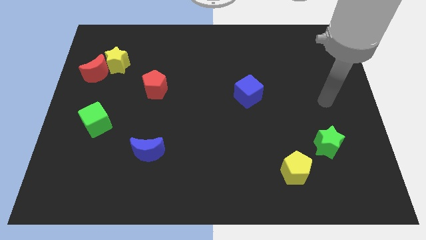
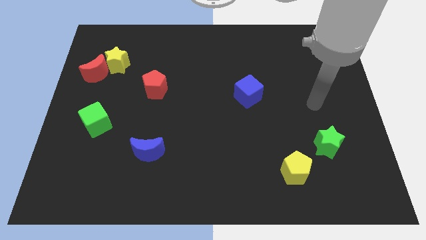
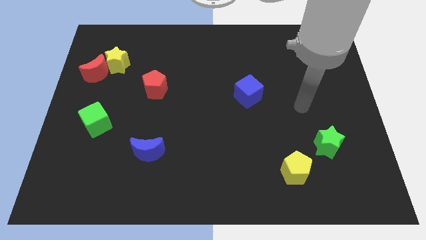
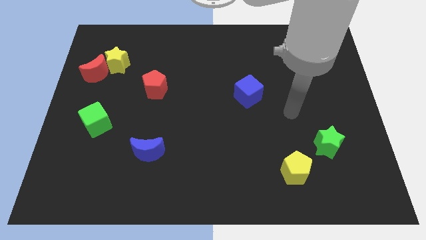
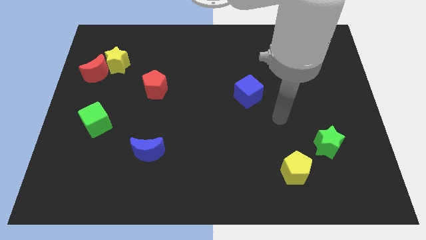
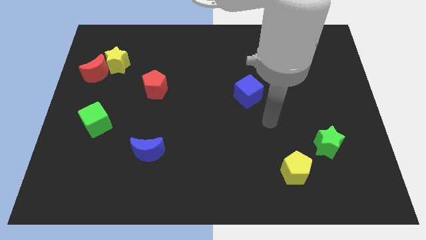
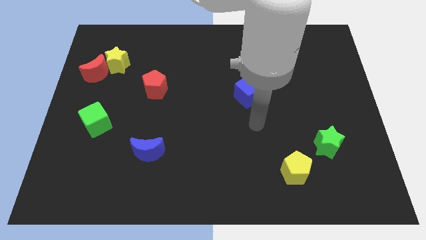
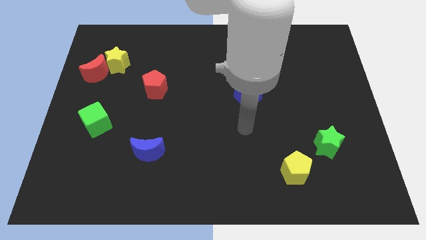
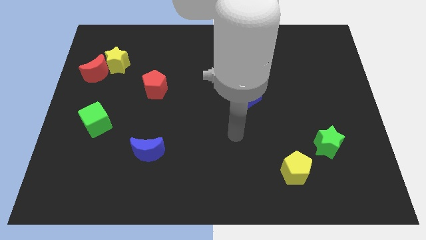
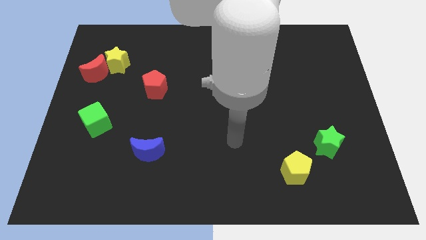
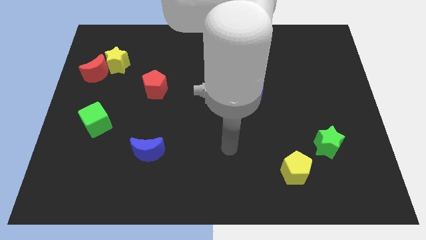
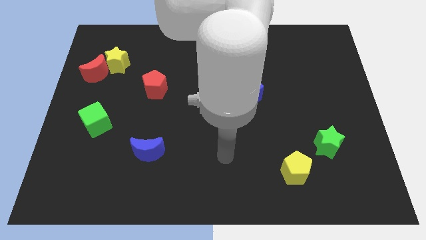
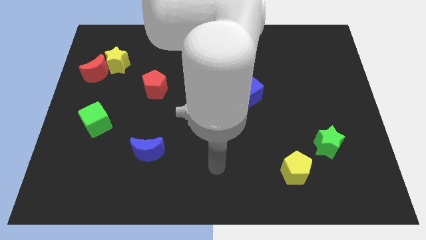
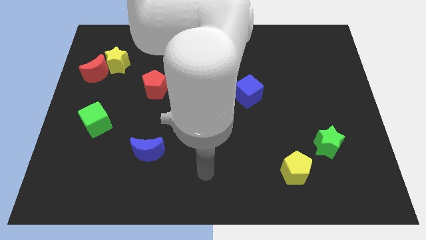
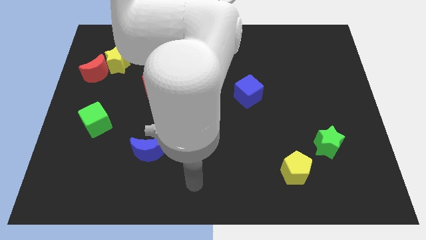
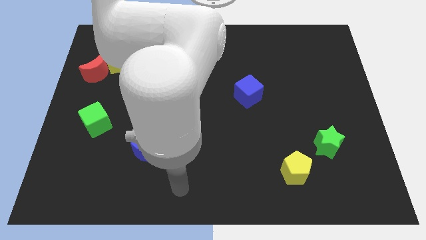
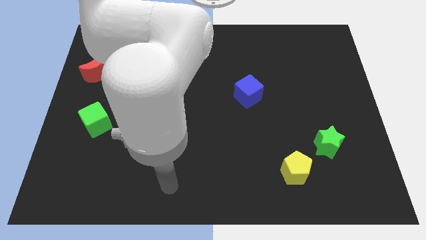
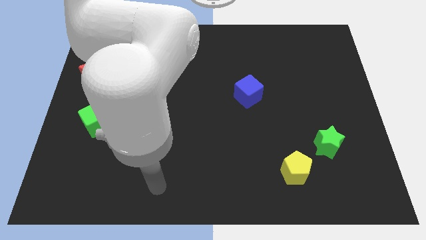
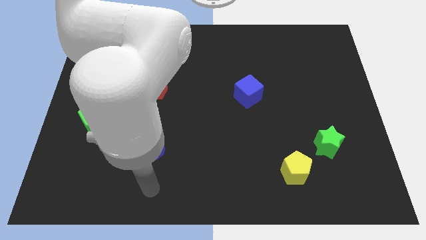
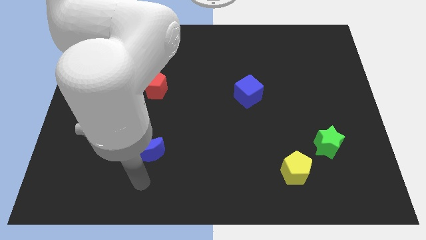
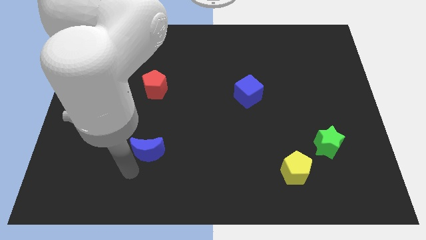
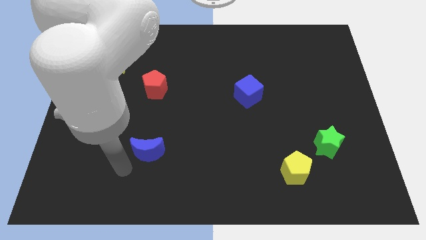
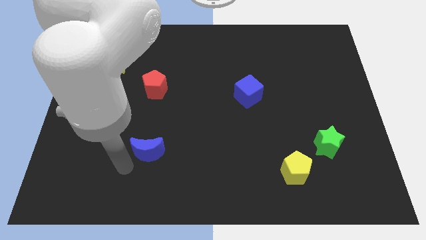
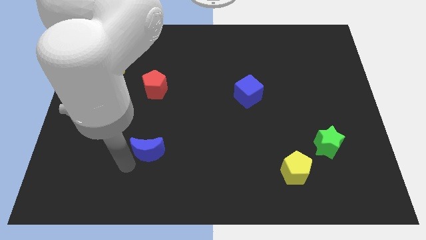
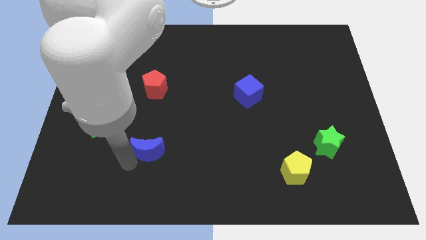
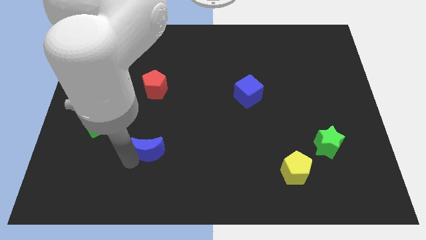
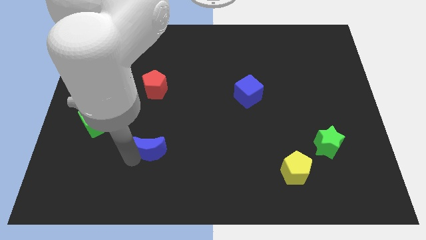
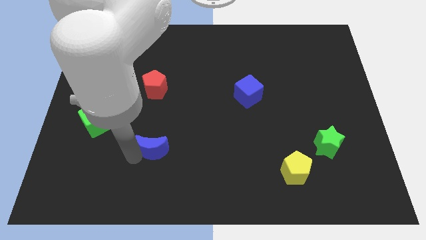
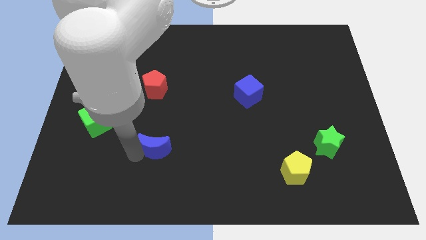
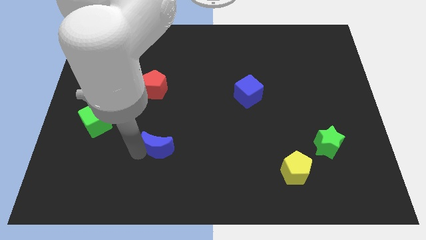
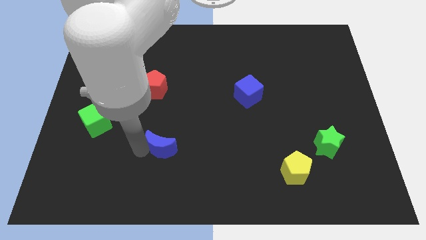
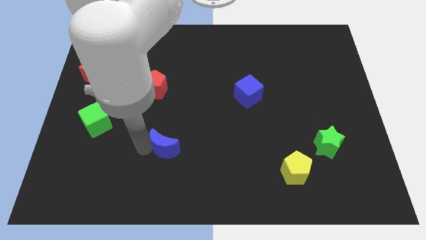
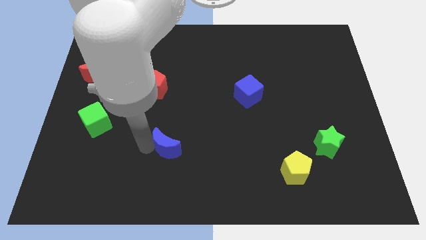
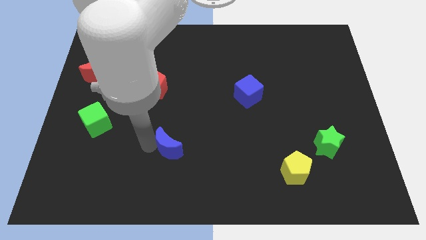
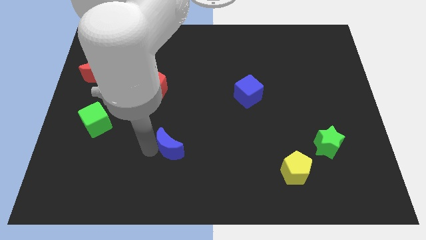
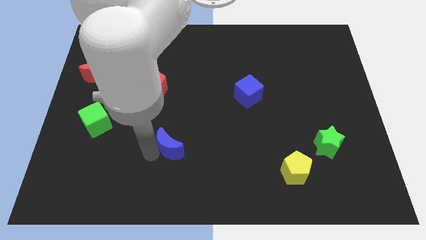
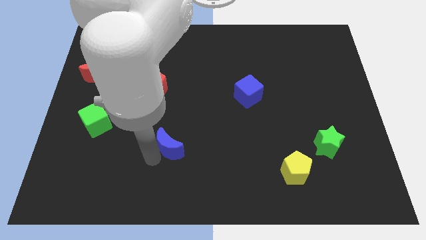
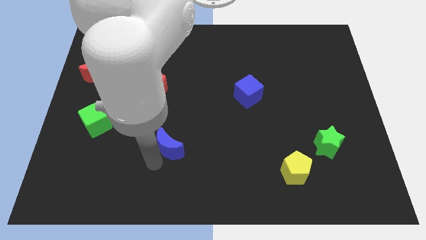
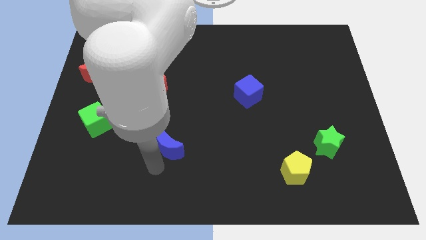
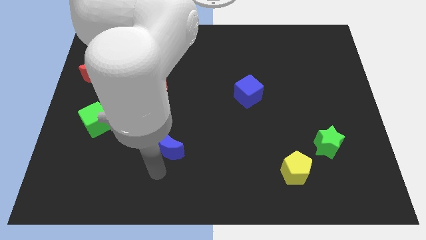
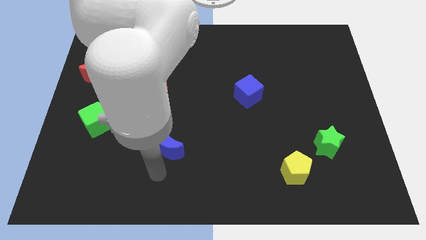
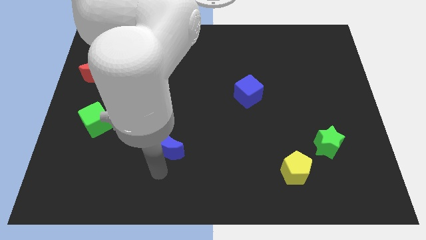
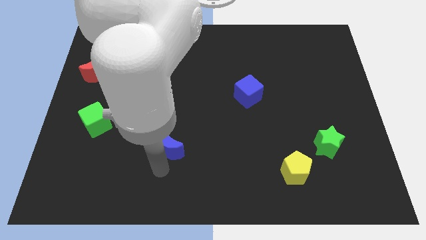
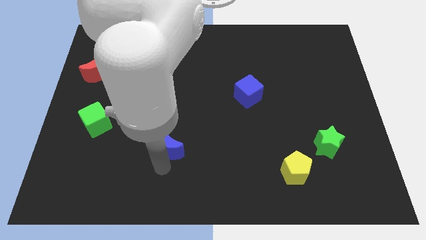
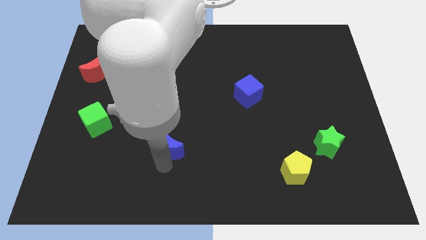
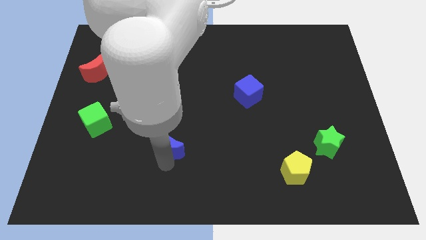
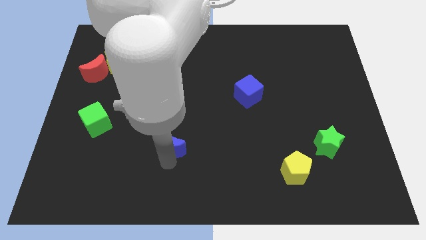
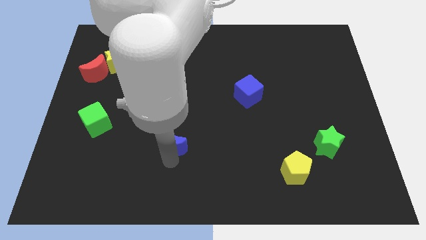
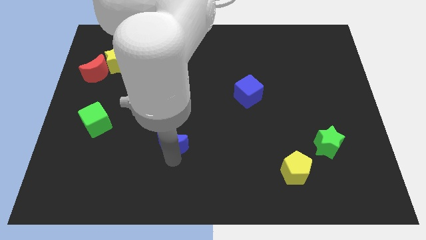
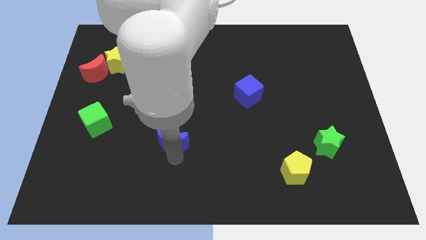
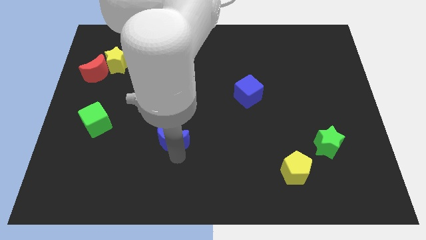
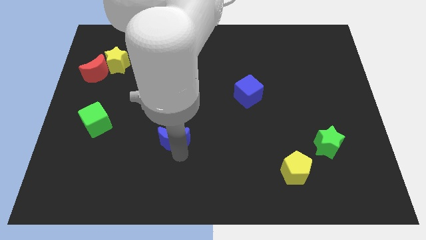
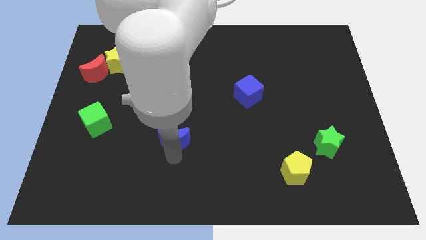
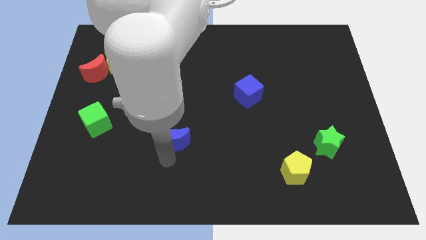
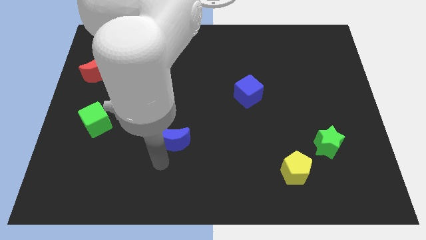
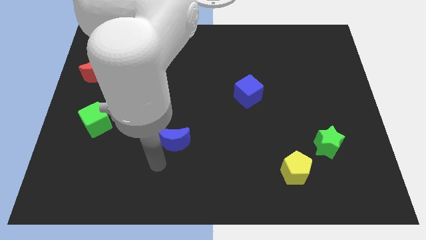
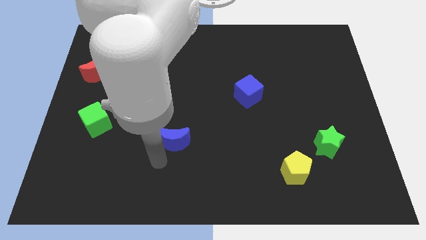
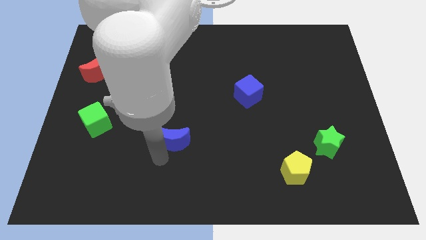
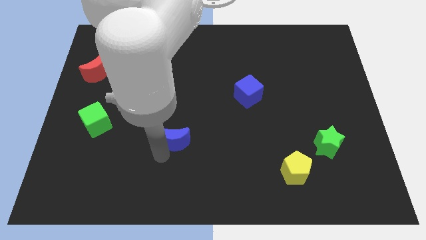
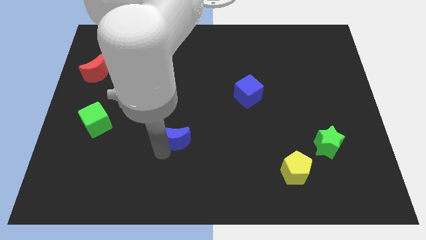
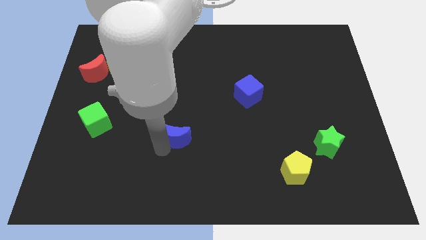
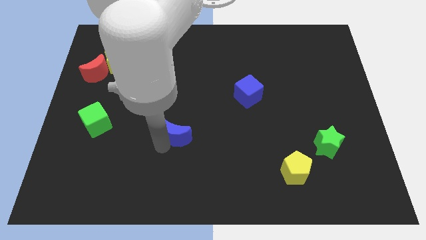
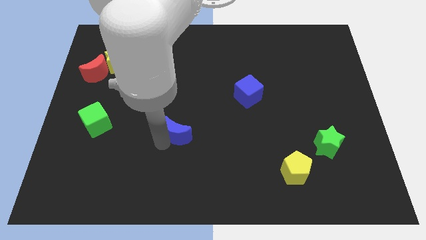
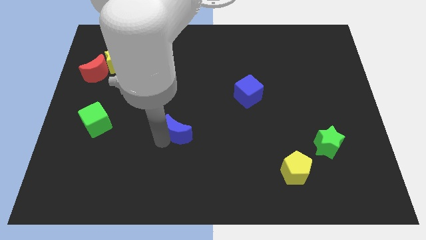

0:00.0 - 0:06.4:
push the blue moon to the middle of the board

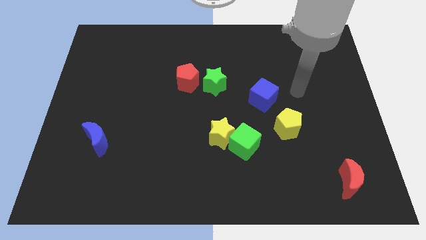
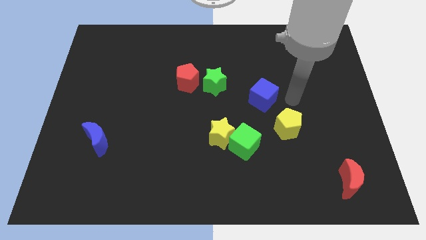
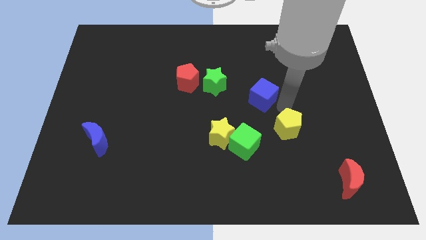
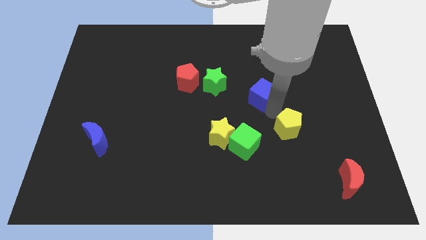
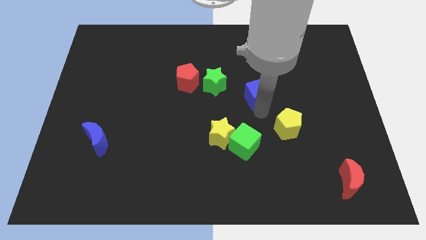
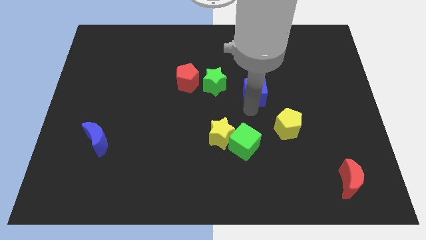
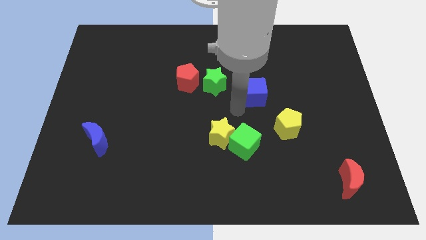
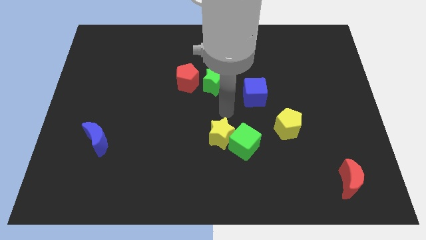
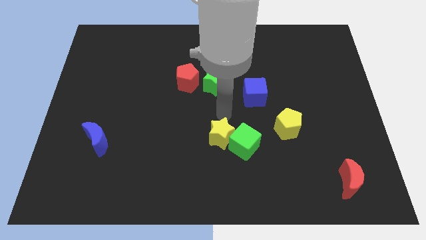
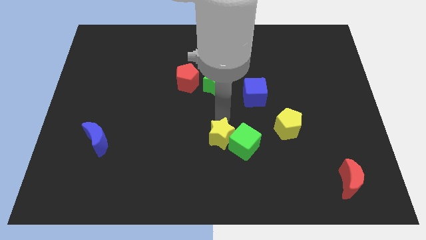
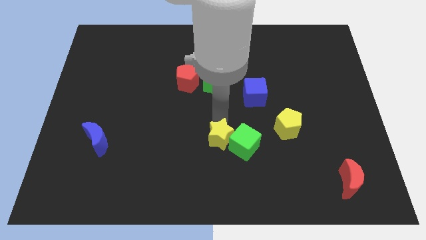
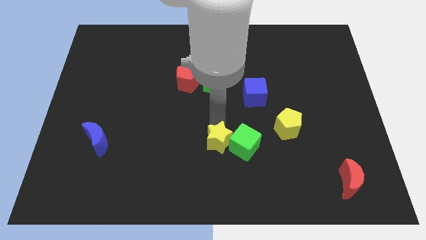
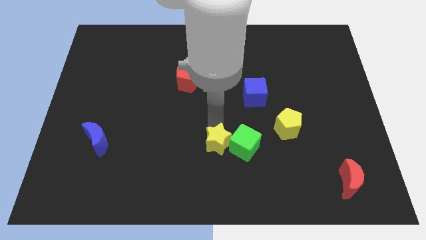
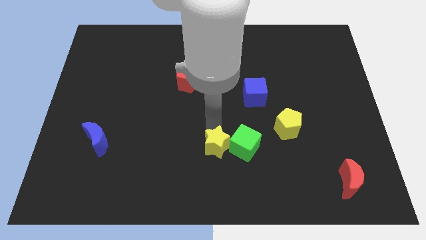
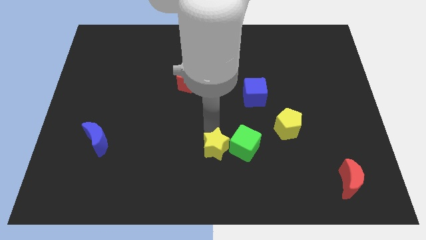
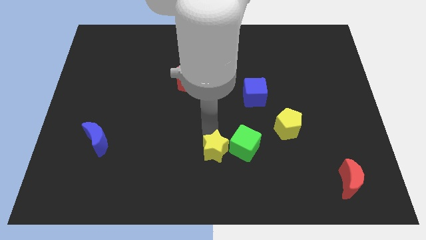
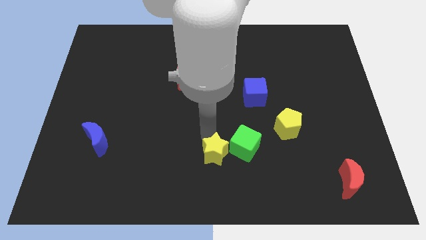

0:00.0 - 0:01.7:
move the yellow star to the bottom
